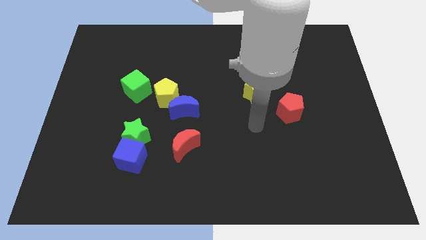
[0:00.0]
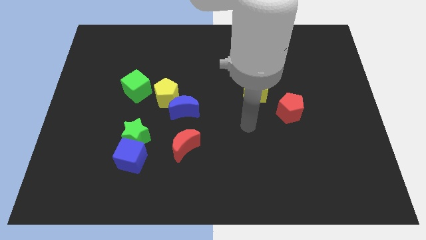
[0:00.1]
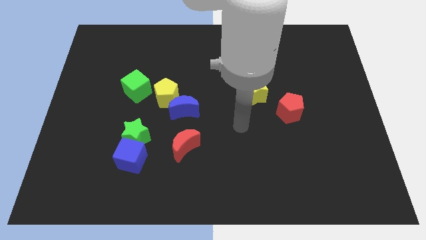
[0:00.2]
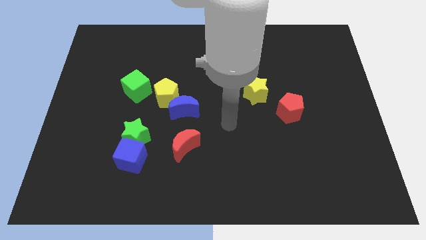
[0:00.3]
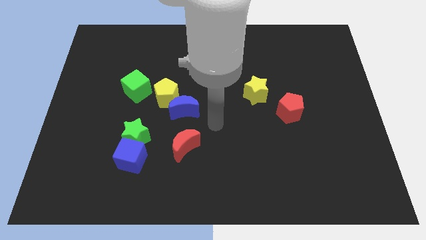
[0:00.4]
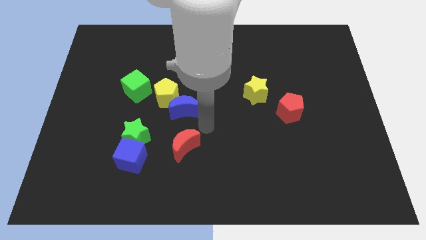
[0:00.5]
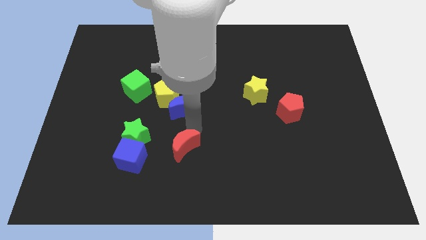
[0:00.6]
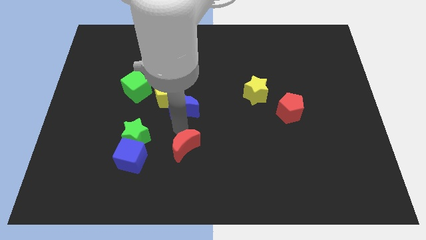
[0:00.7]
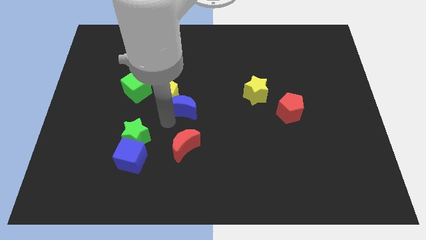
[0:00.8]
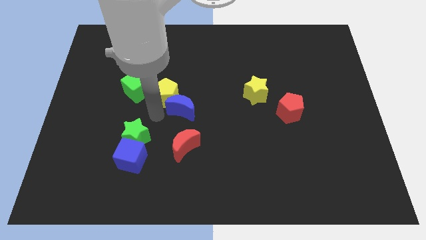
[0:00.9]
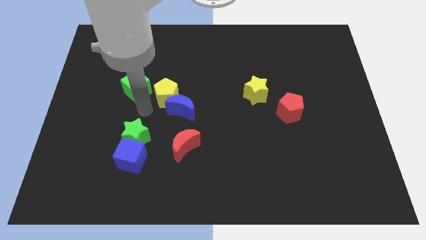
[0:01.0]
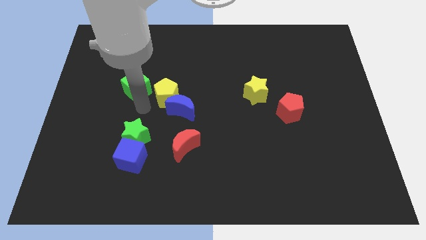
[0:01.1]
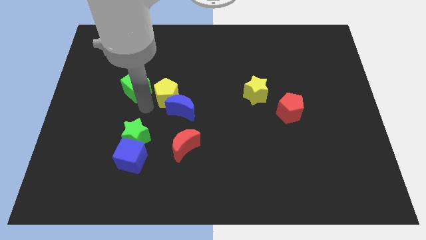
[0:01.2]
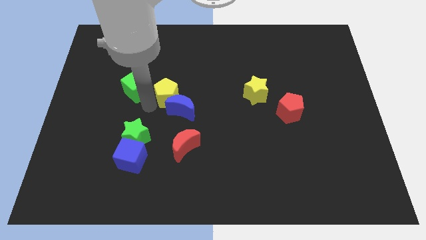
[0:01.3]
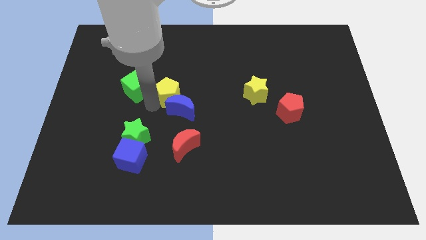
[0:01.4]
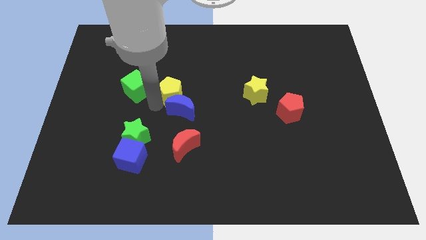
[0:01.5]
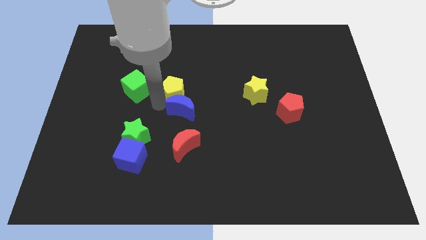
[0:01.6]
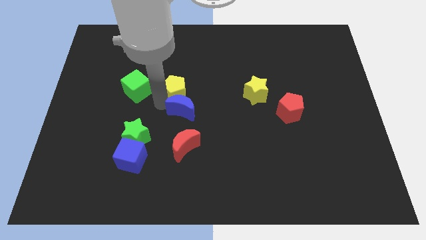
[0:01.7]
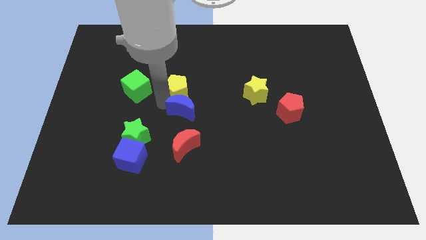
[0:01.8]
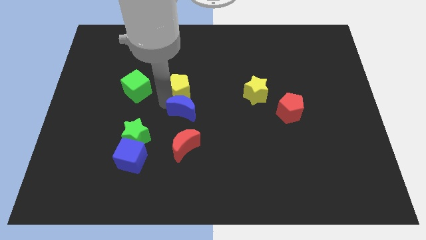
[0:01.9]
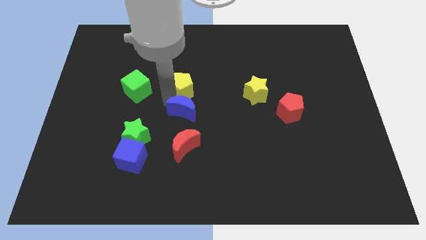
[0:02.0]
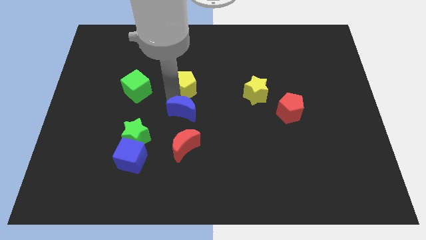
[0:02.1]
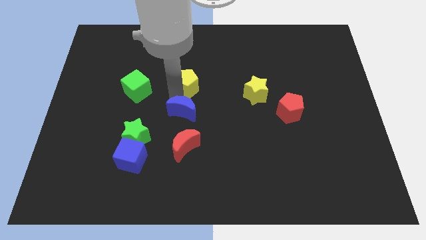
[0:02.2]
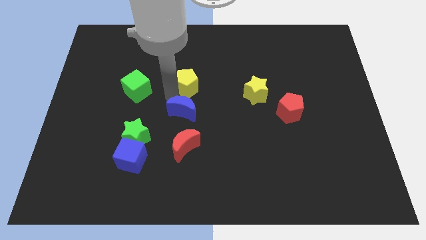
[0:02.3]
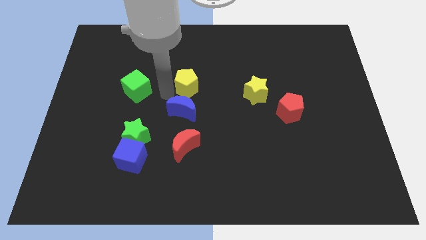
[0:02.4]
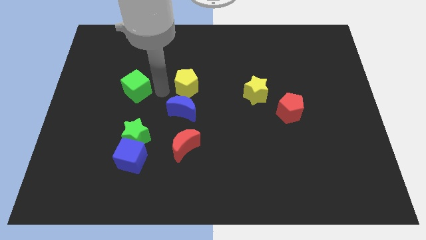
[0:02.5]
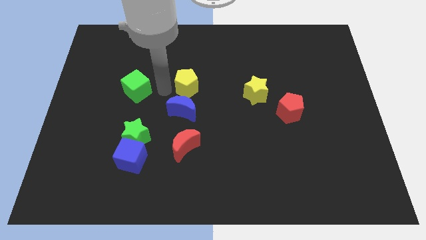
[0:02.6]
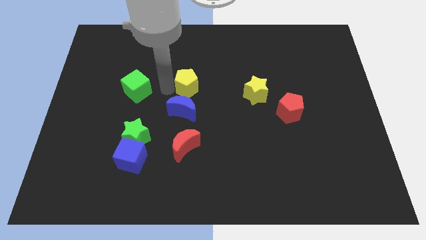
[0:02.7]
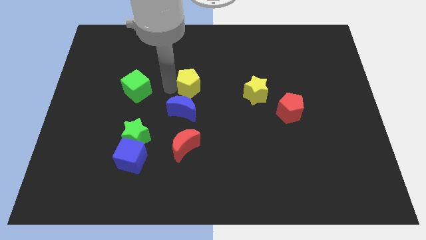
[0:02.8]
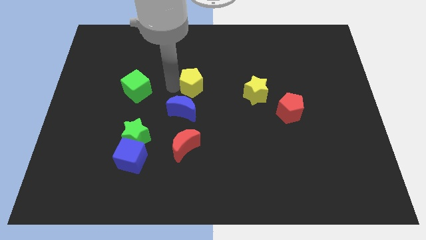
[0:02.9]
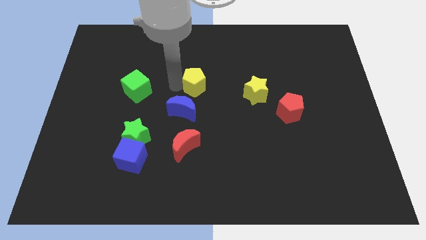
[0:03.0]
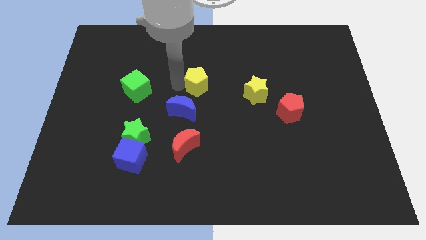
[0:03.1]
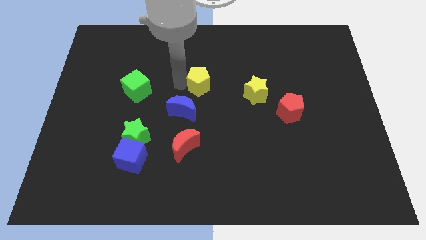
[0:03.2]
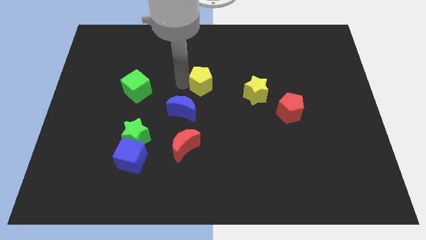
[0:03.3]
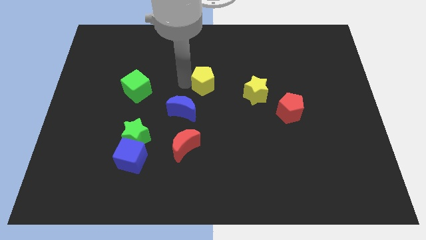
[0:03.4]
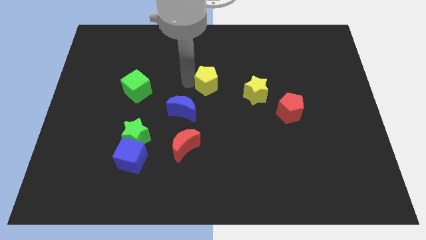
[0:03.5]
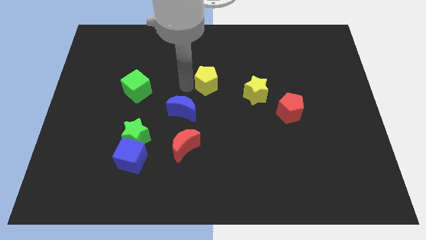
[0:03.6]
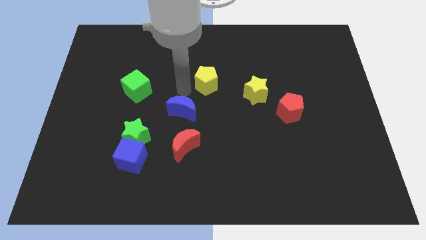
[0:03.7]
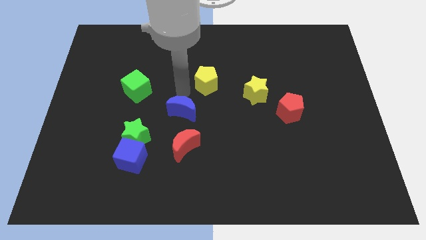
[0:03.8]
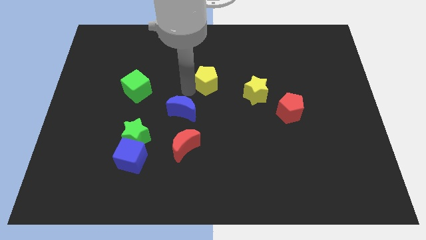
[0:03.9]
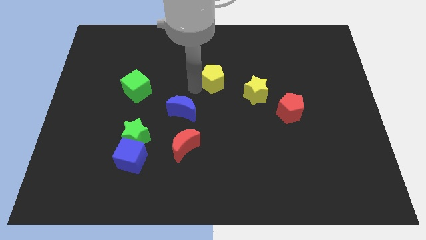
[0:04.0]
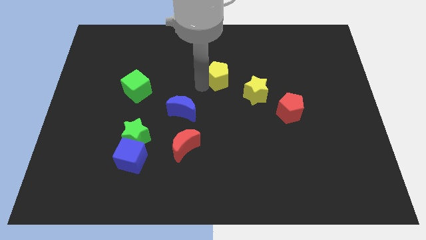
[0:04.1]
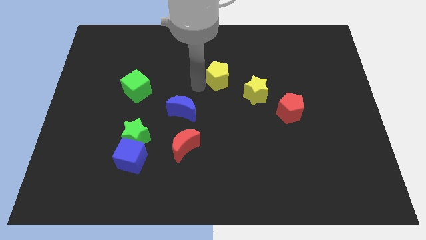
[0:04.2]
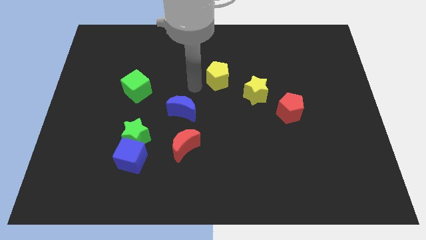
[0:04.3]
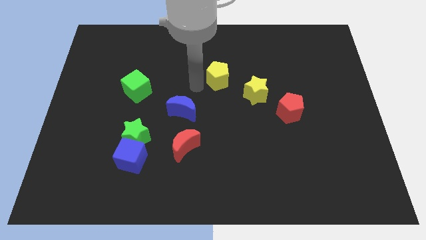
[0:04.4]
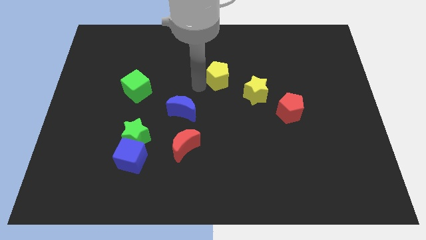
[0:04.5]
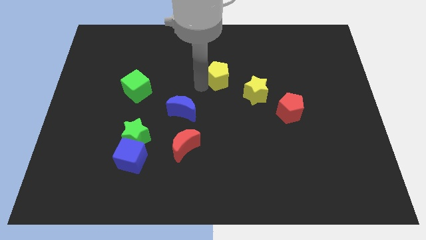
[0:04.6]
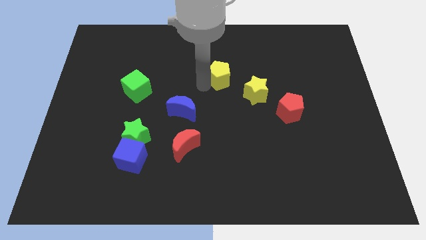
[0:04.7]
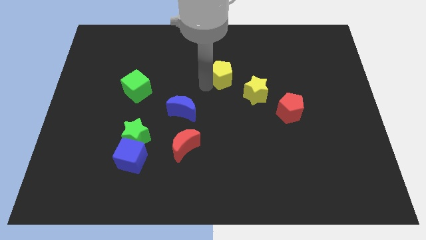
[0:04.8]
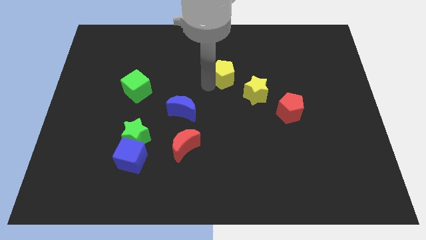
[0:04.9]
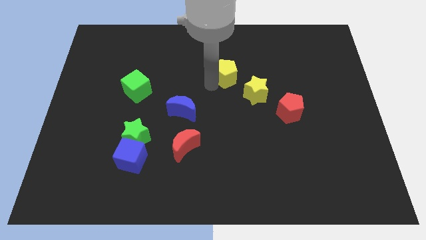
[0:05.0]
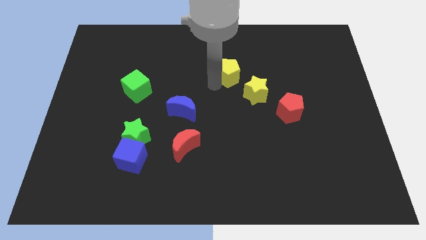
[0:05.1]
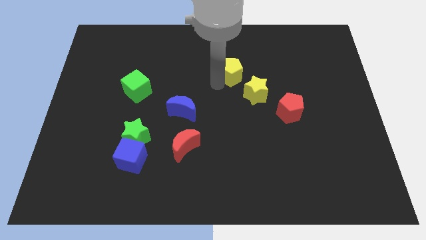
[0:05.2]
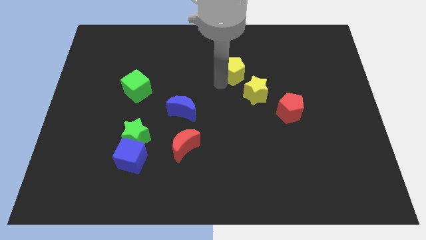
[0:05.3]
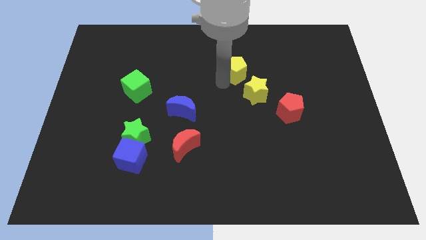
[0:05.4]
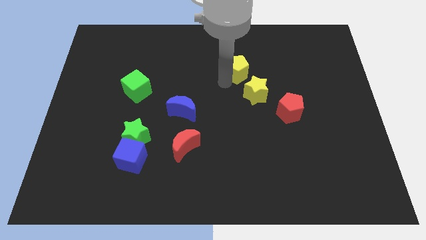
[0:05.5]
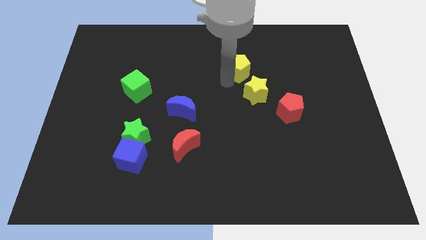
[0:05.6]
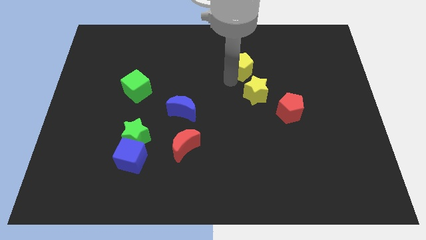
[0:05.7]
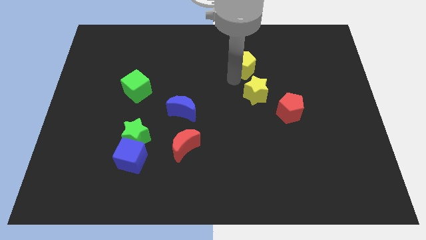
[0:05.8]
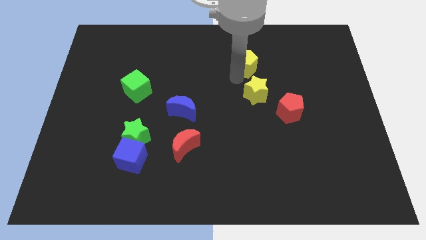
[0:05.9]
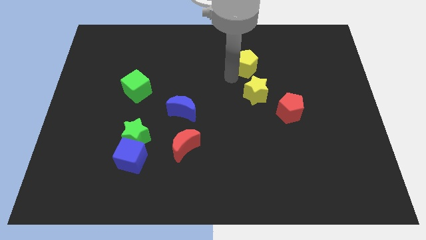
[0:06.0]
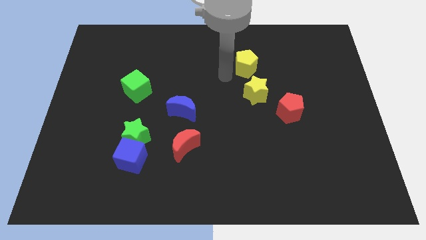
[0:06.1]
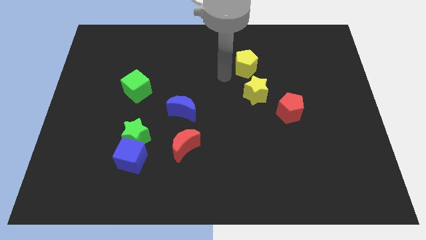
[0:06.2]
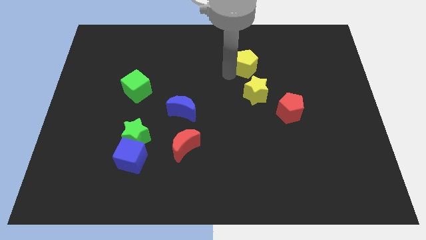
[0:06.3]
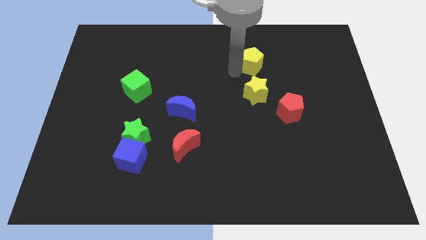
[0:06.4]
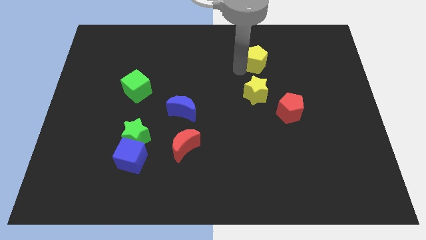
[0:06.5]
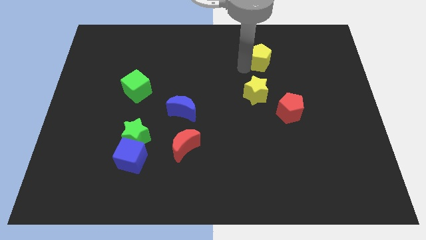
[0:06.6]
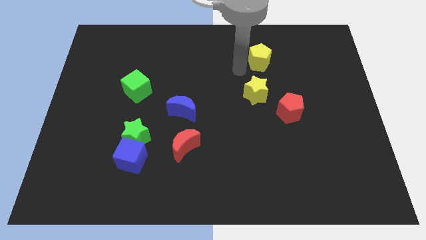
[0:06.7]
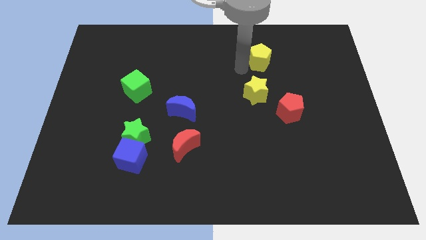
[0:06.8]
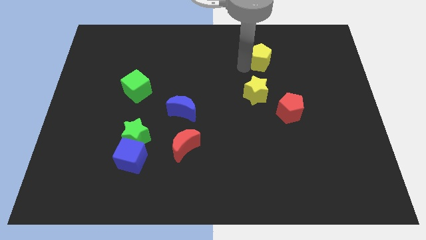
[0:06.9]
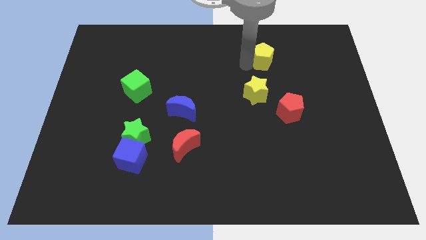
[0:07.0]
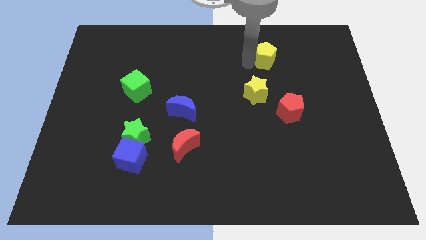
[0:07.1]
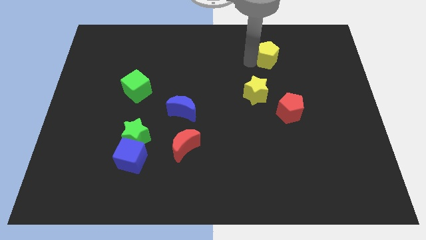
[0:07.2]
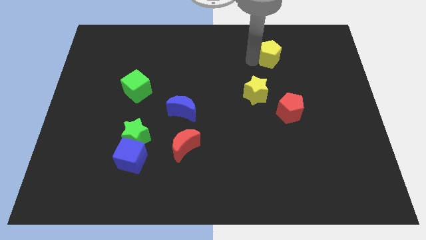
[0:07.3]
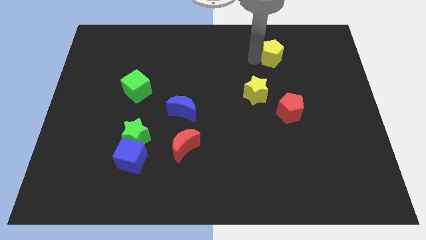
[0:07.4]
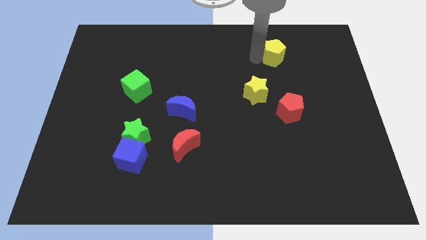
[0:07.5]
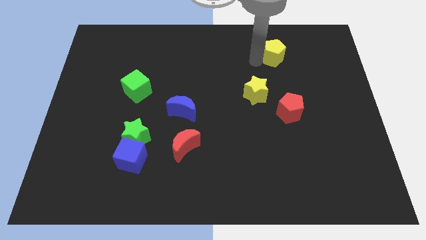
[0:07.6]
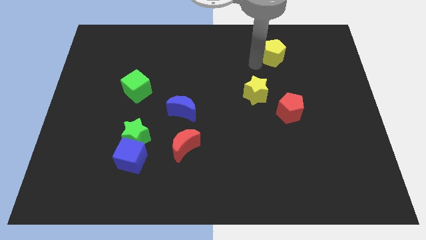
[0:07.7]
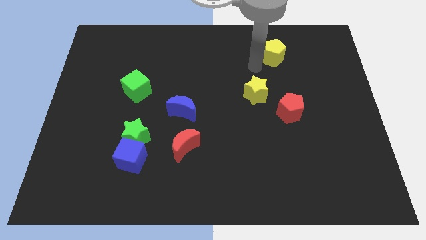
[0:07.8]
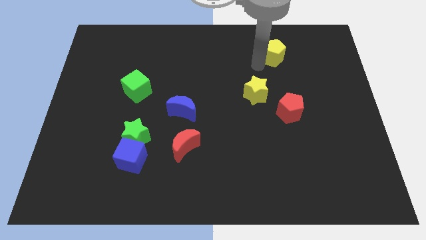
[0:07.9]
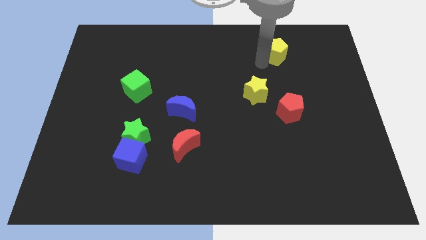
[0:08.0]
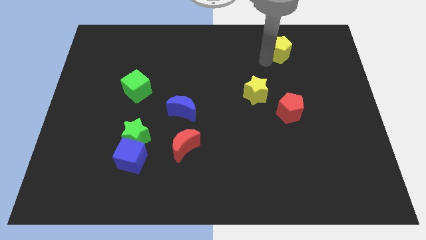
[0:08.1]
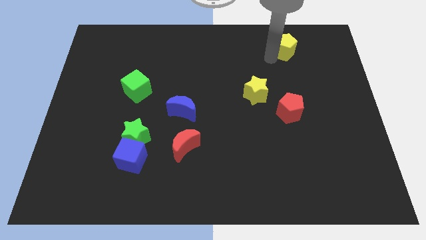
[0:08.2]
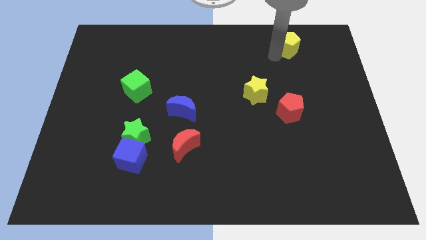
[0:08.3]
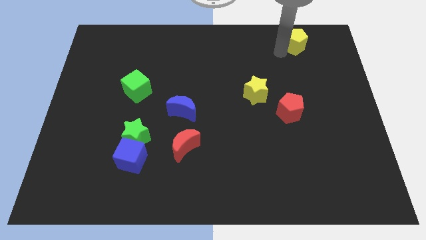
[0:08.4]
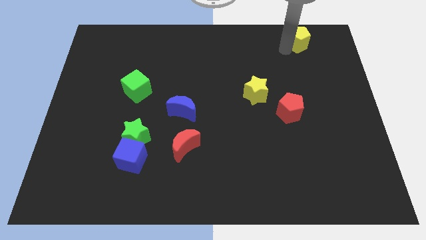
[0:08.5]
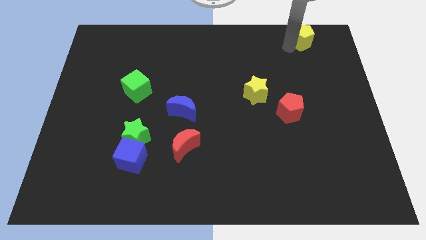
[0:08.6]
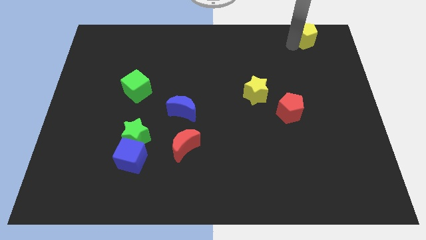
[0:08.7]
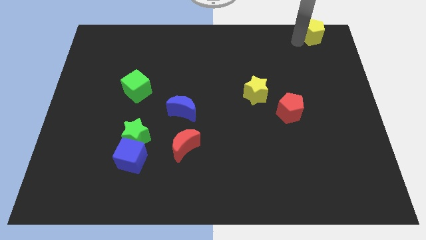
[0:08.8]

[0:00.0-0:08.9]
push the yellow pentagon to the top right
